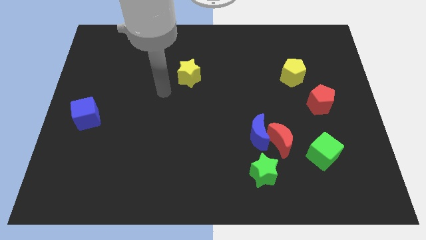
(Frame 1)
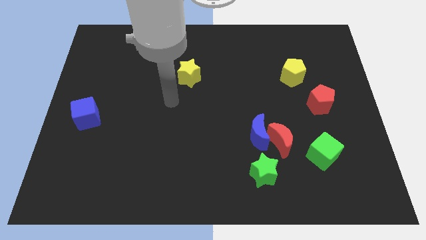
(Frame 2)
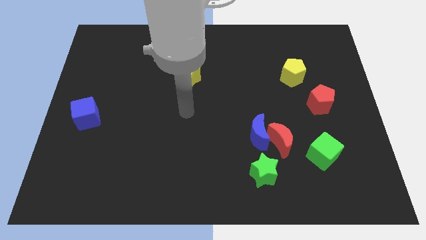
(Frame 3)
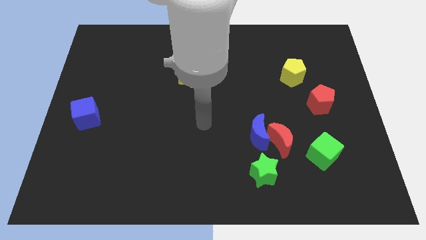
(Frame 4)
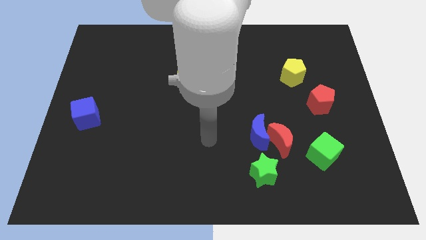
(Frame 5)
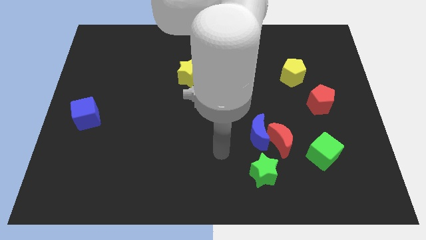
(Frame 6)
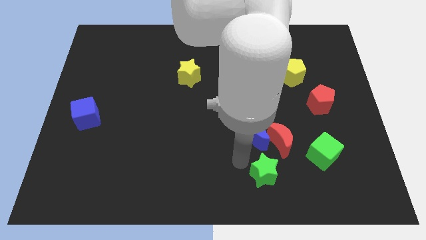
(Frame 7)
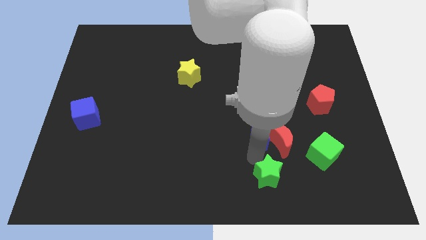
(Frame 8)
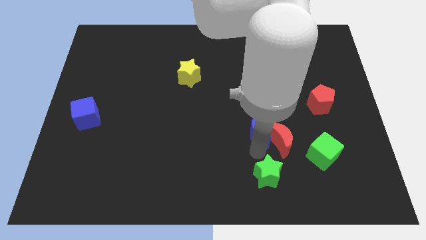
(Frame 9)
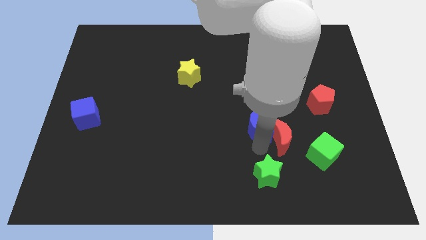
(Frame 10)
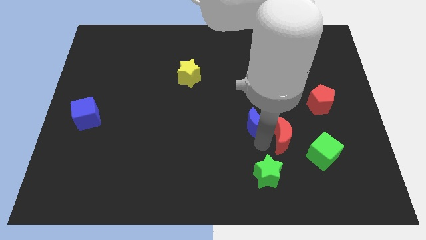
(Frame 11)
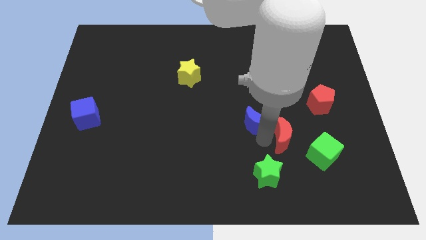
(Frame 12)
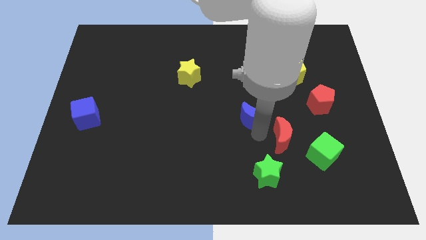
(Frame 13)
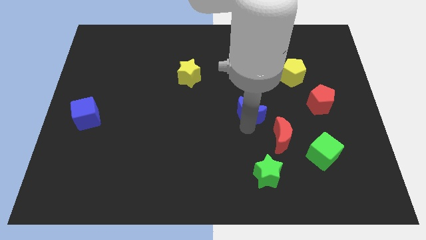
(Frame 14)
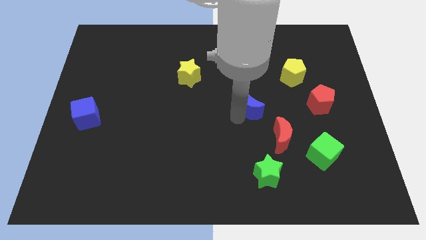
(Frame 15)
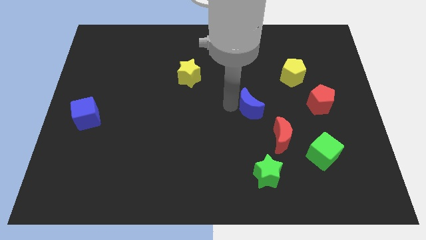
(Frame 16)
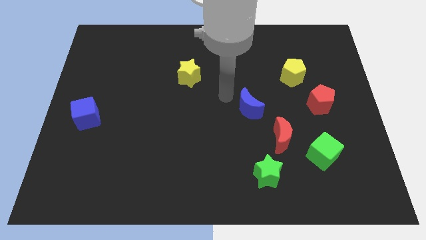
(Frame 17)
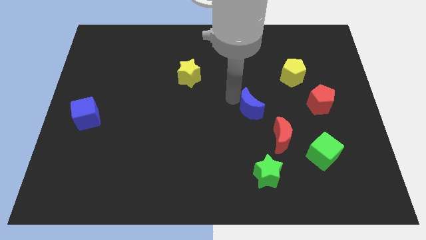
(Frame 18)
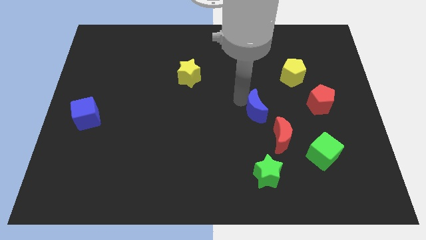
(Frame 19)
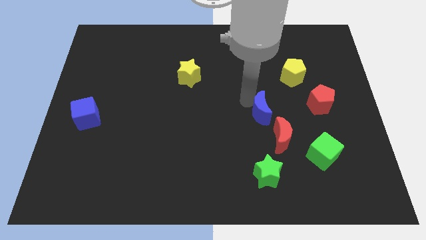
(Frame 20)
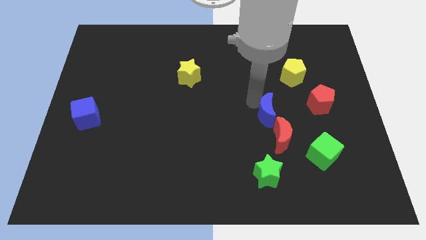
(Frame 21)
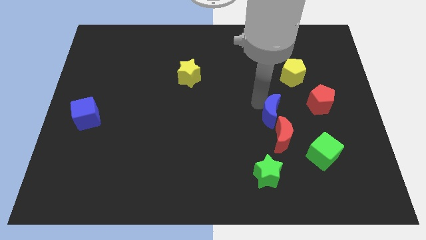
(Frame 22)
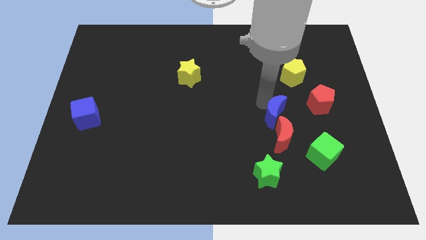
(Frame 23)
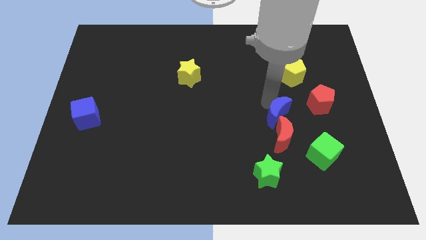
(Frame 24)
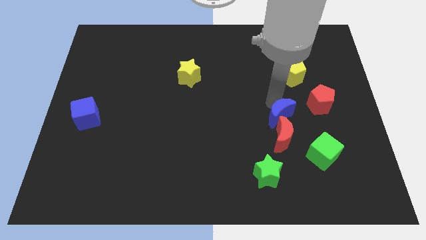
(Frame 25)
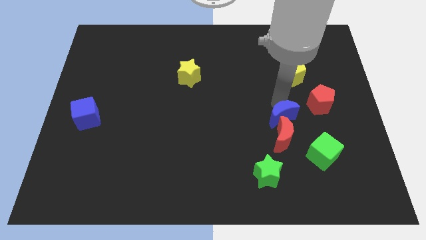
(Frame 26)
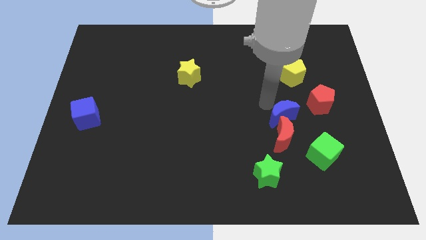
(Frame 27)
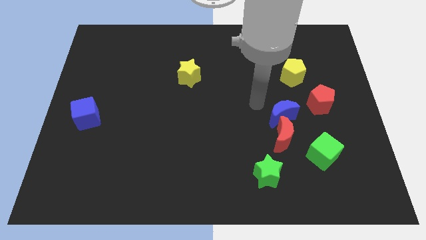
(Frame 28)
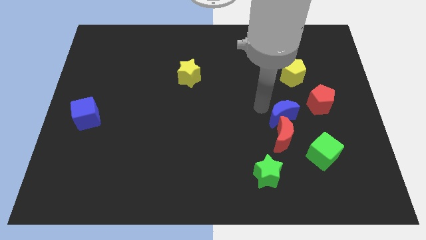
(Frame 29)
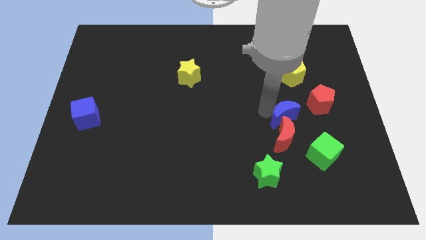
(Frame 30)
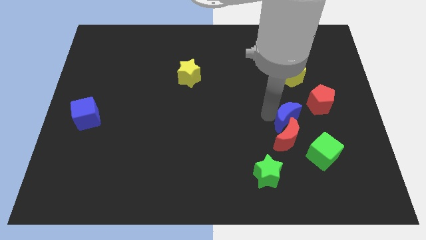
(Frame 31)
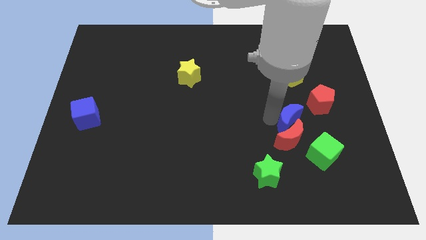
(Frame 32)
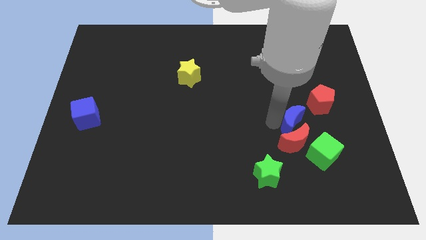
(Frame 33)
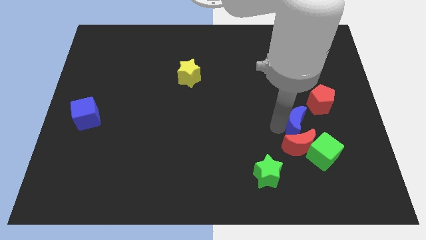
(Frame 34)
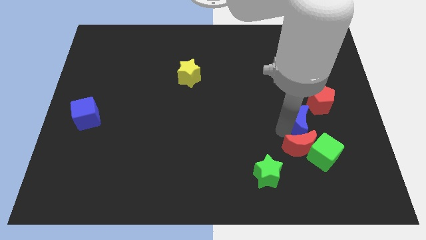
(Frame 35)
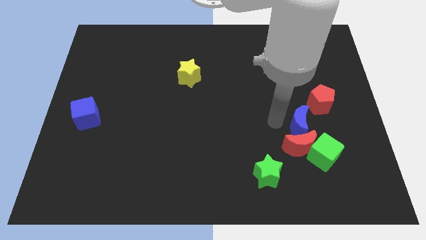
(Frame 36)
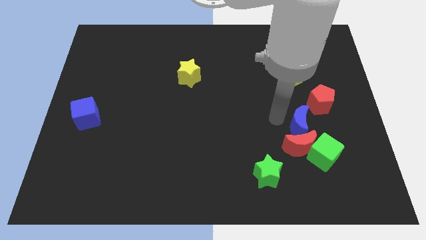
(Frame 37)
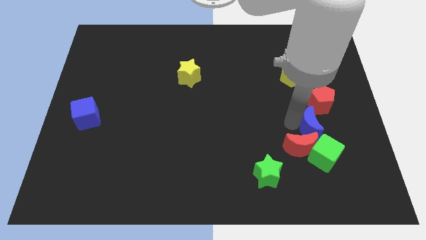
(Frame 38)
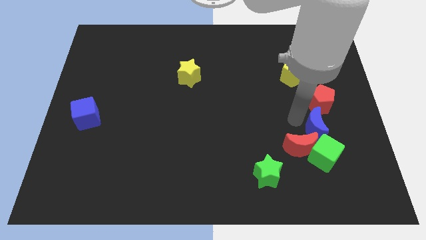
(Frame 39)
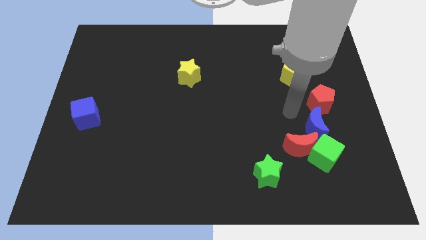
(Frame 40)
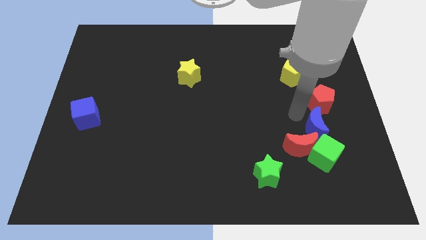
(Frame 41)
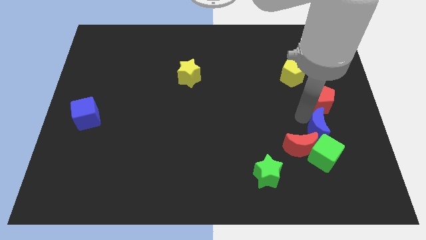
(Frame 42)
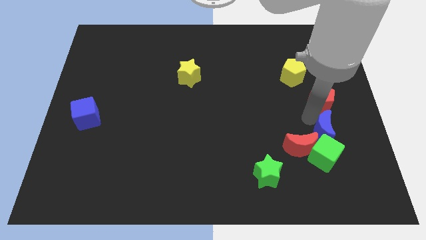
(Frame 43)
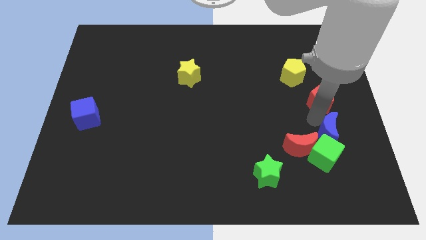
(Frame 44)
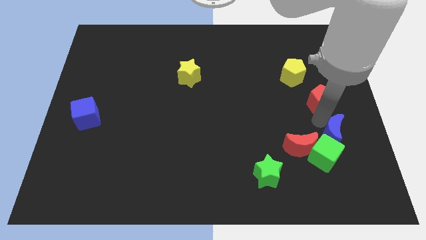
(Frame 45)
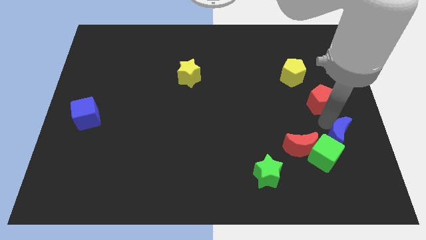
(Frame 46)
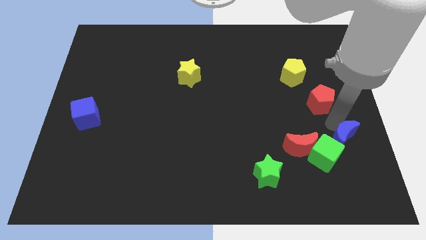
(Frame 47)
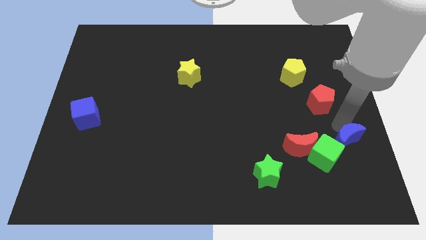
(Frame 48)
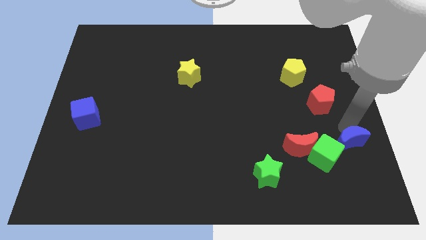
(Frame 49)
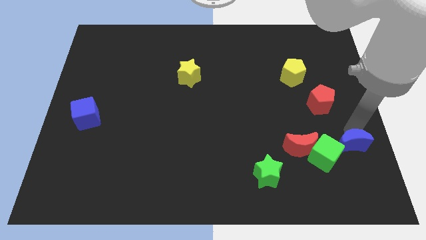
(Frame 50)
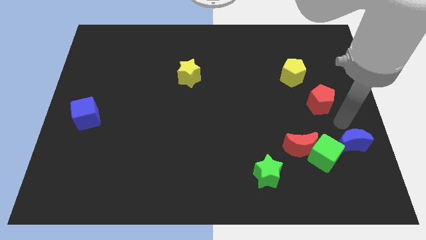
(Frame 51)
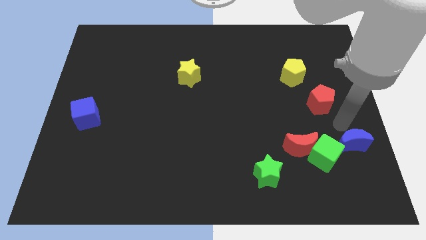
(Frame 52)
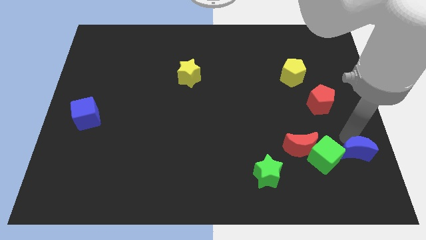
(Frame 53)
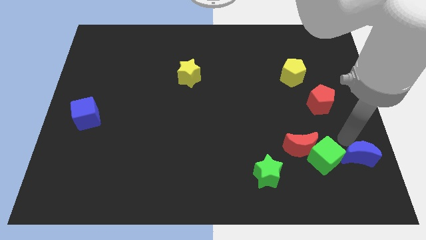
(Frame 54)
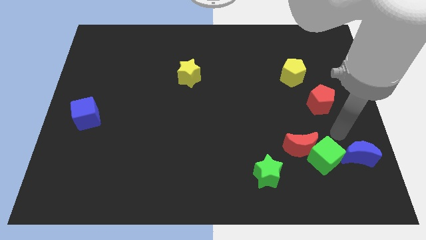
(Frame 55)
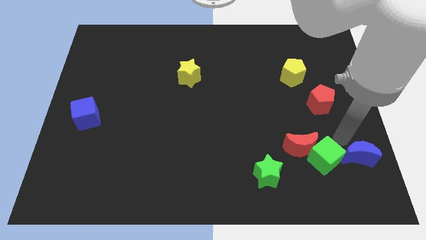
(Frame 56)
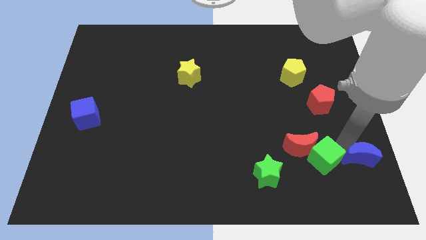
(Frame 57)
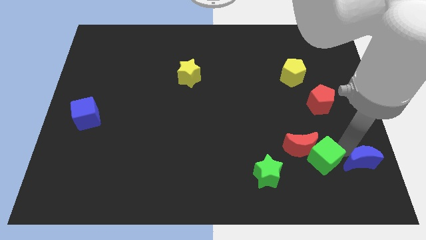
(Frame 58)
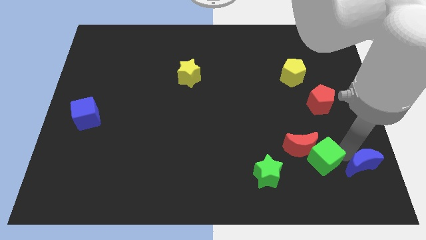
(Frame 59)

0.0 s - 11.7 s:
slide the blue moon to the bottom right

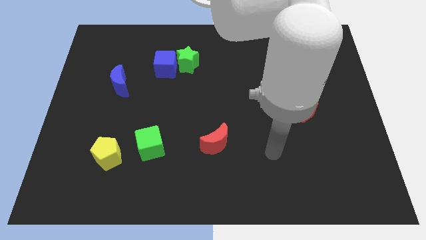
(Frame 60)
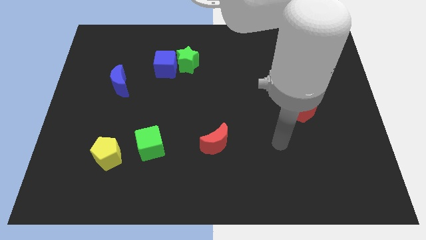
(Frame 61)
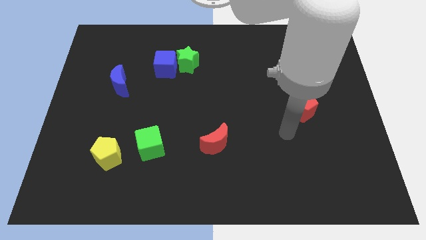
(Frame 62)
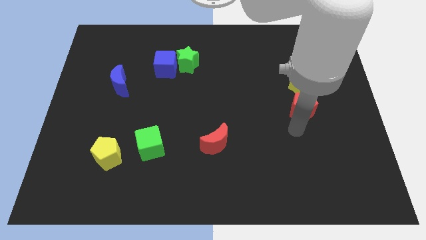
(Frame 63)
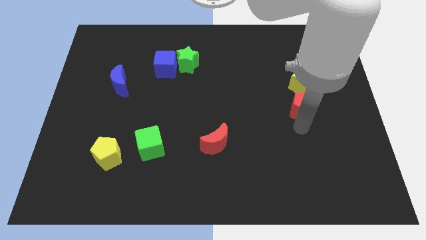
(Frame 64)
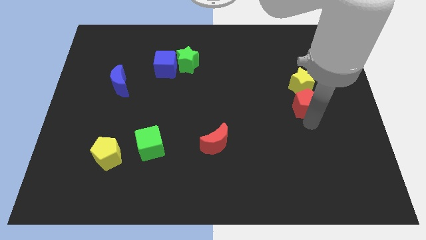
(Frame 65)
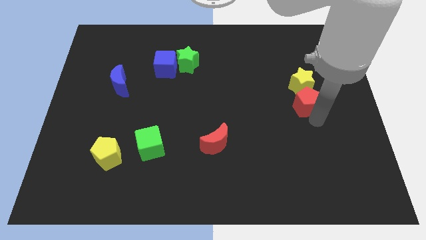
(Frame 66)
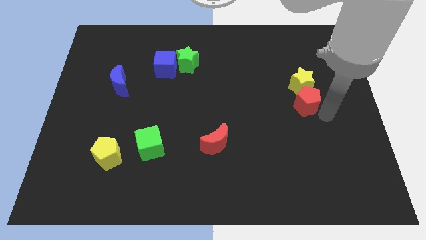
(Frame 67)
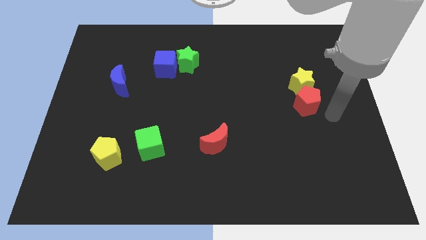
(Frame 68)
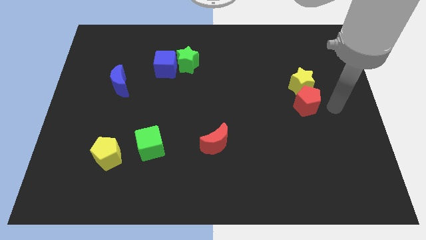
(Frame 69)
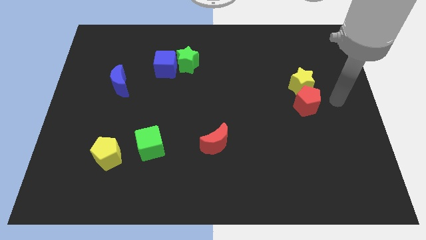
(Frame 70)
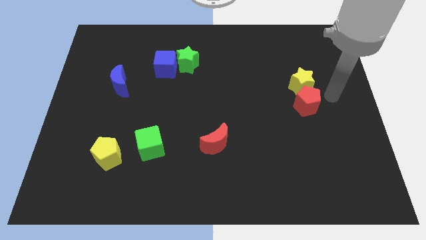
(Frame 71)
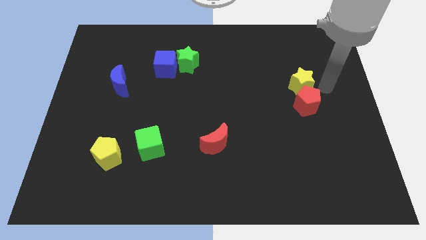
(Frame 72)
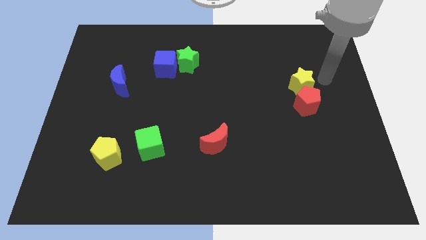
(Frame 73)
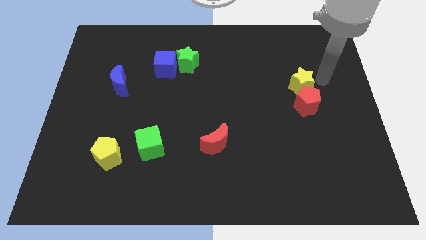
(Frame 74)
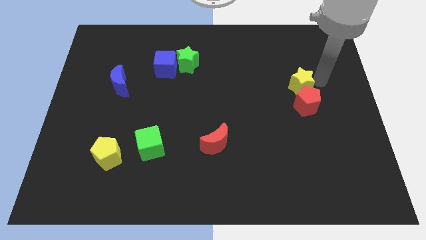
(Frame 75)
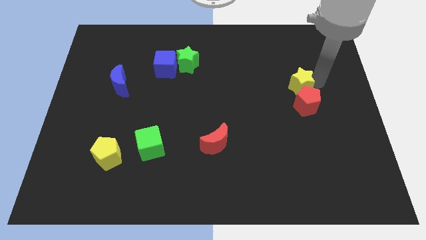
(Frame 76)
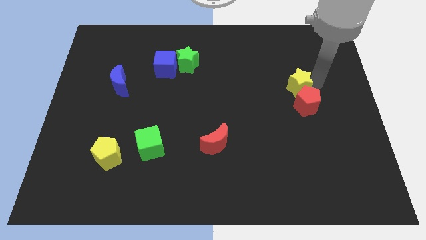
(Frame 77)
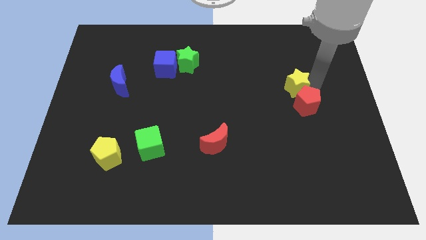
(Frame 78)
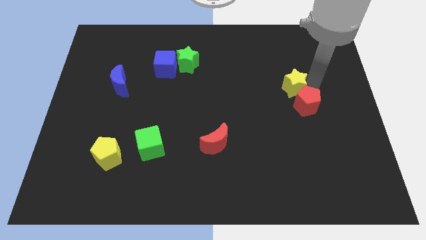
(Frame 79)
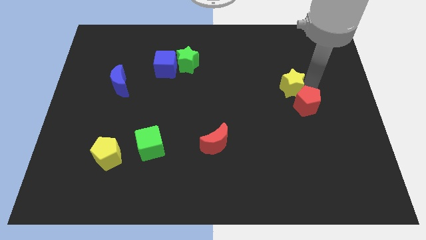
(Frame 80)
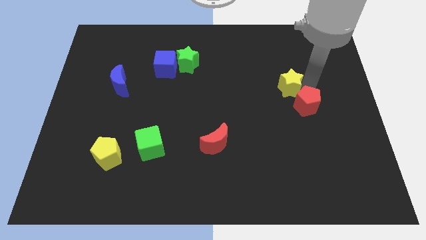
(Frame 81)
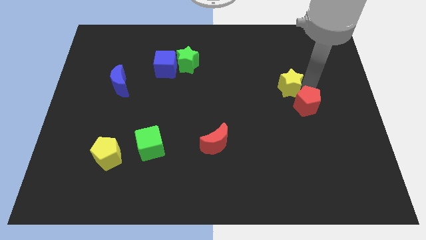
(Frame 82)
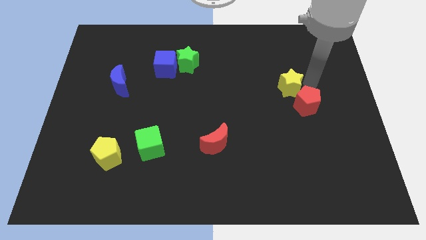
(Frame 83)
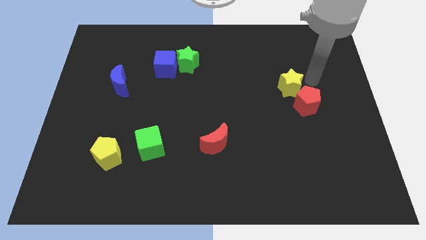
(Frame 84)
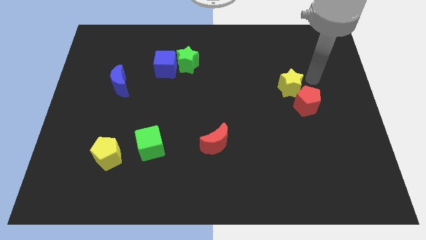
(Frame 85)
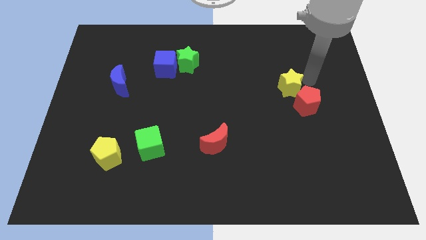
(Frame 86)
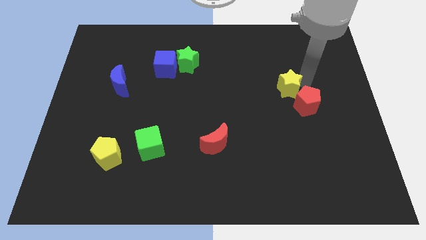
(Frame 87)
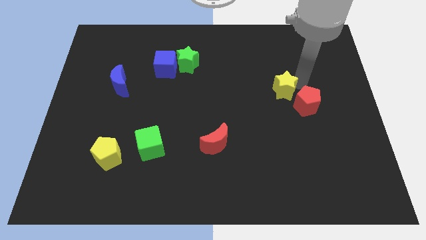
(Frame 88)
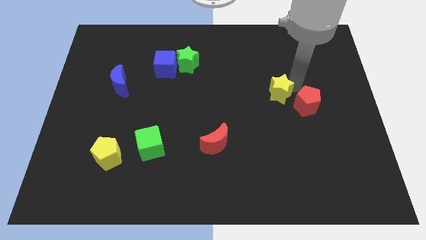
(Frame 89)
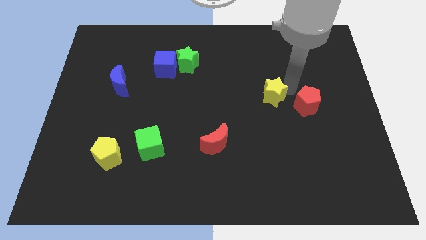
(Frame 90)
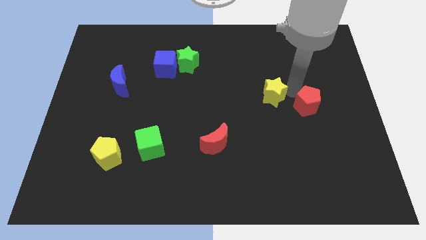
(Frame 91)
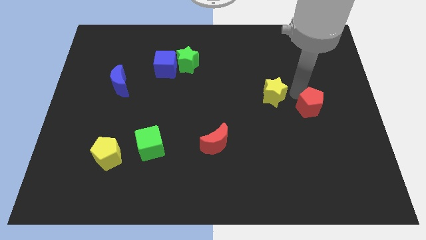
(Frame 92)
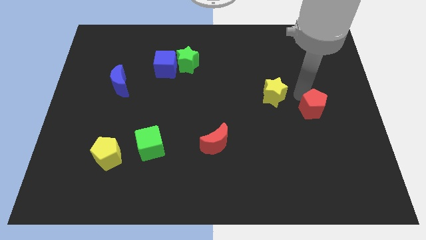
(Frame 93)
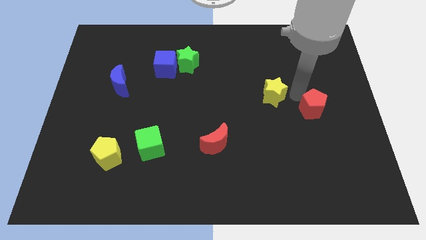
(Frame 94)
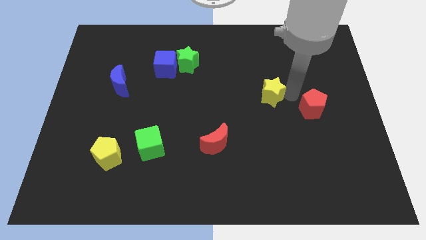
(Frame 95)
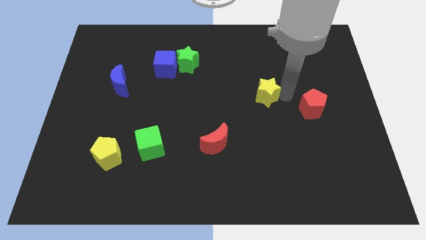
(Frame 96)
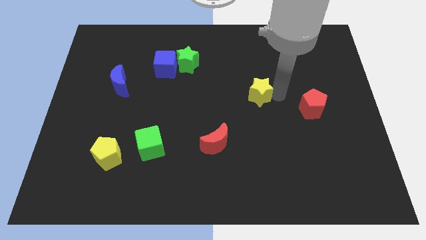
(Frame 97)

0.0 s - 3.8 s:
push the yellow star to the middle of the board
